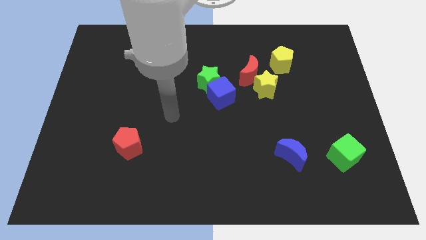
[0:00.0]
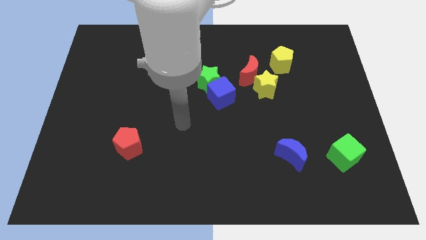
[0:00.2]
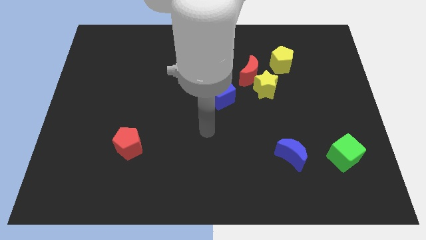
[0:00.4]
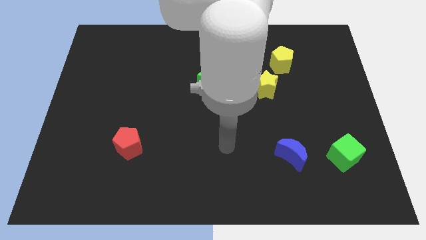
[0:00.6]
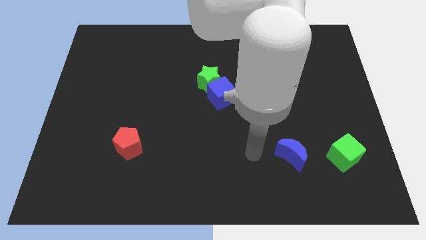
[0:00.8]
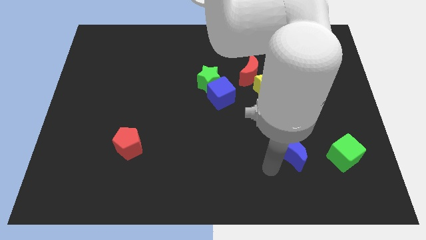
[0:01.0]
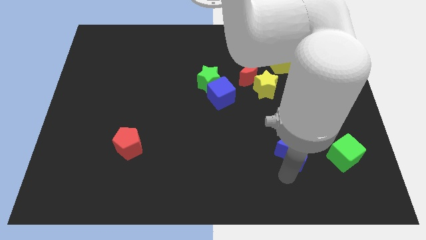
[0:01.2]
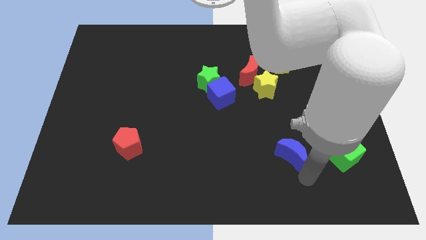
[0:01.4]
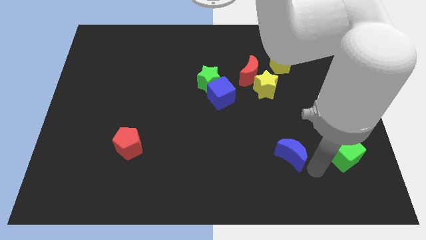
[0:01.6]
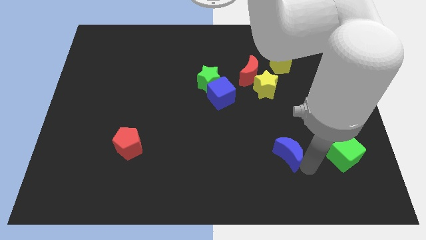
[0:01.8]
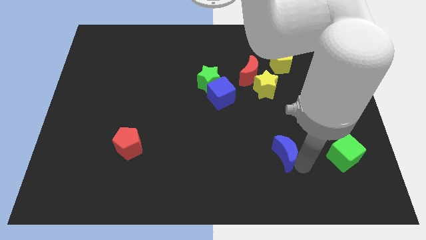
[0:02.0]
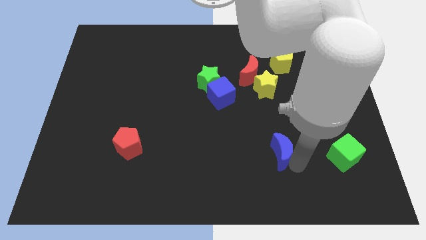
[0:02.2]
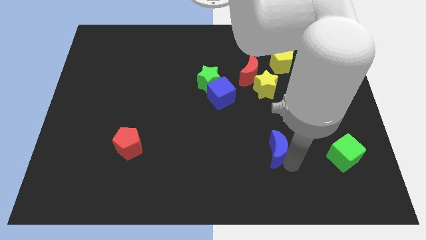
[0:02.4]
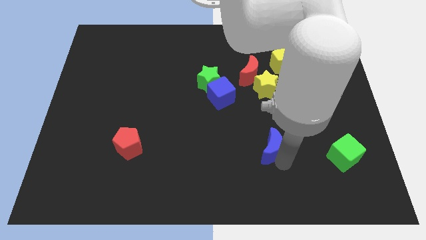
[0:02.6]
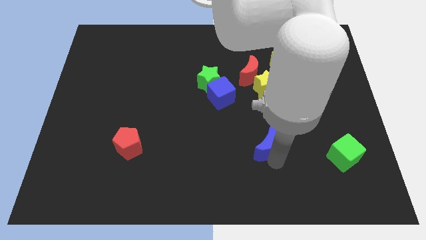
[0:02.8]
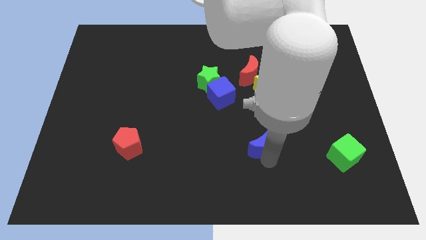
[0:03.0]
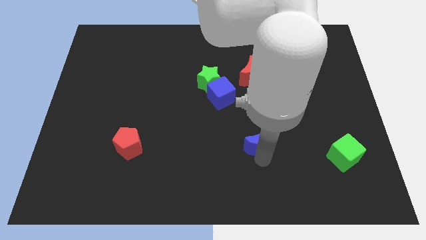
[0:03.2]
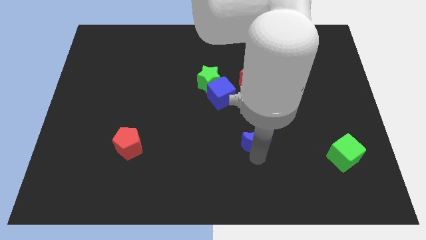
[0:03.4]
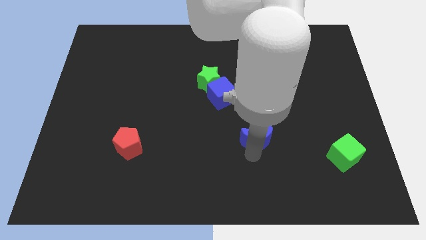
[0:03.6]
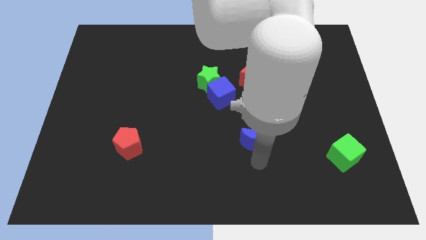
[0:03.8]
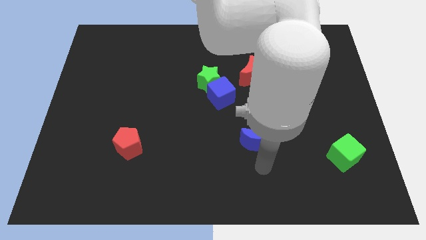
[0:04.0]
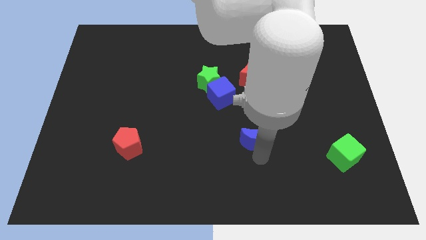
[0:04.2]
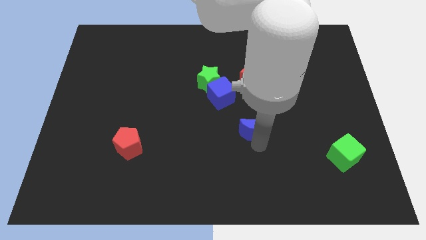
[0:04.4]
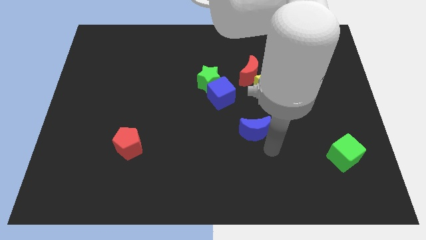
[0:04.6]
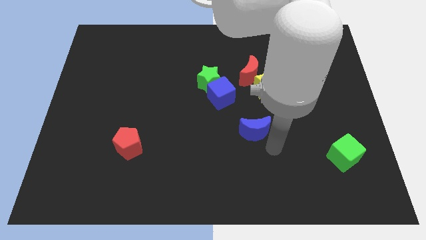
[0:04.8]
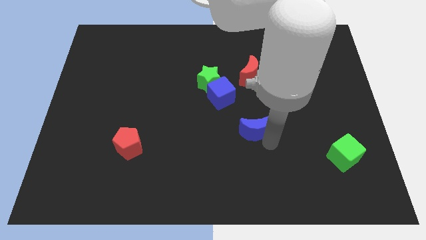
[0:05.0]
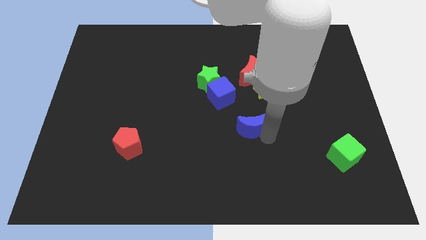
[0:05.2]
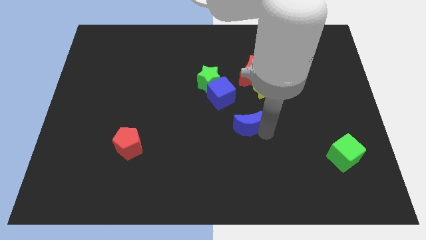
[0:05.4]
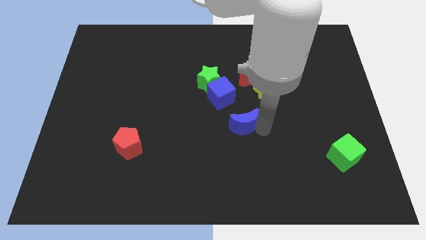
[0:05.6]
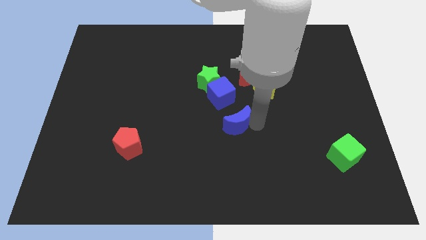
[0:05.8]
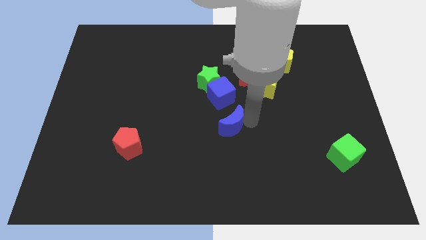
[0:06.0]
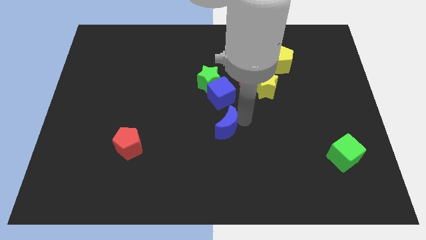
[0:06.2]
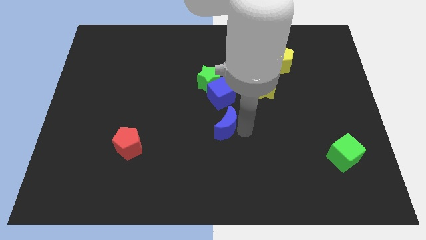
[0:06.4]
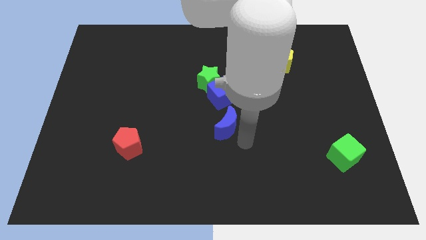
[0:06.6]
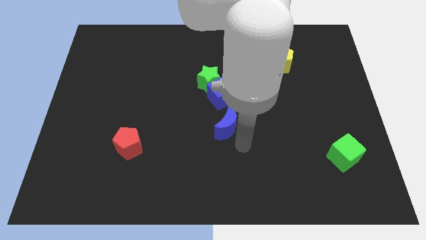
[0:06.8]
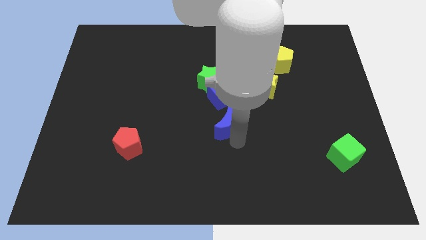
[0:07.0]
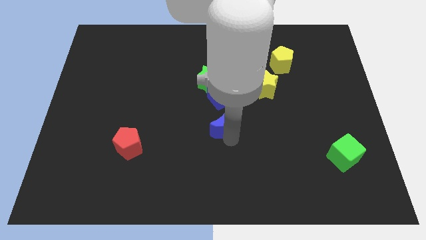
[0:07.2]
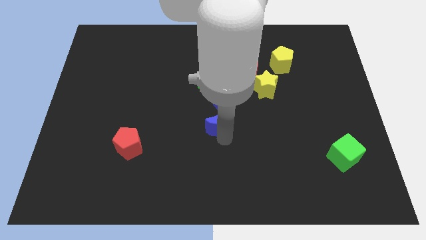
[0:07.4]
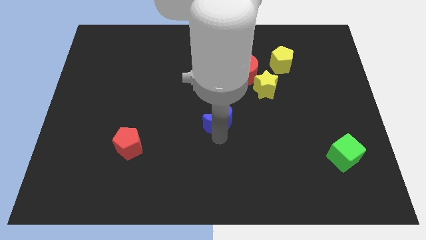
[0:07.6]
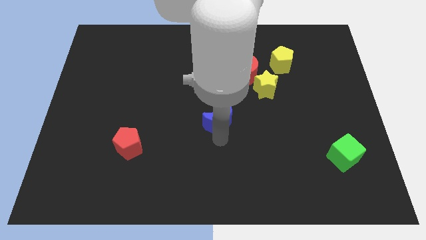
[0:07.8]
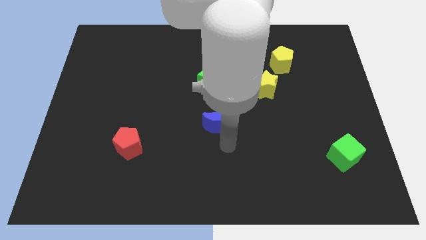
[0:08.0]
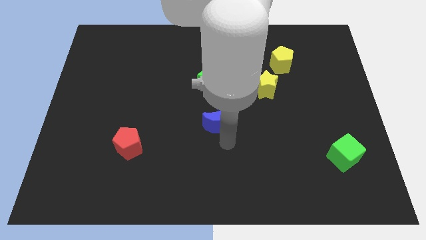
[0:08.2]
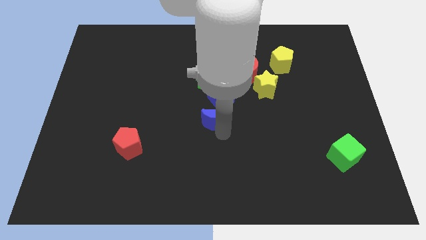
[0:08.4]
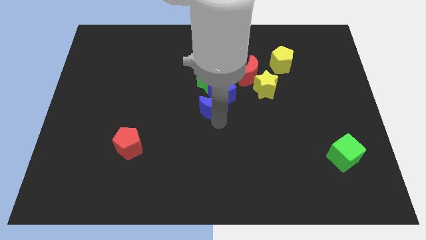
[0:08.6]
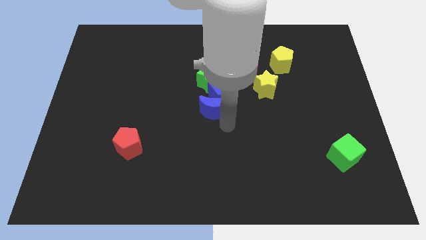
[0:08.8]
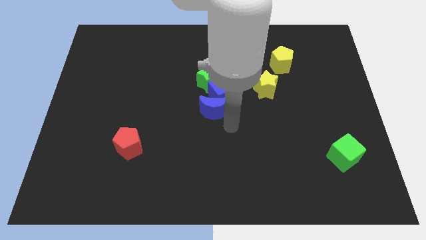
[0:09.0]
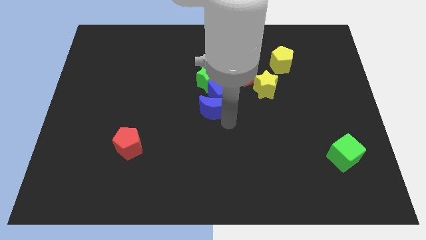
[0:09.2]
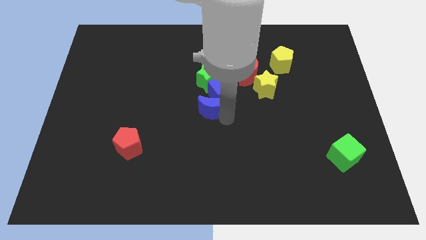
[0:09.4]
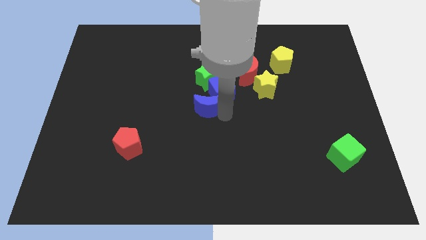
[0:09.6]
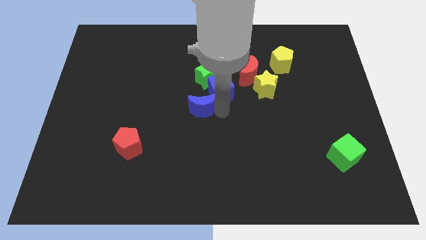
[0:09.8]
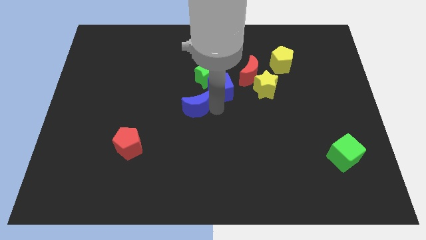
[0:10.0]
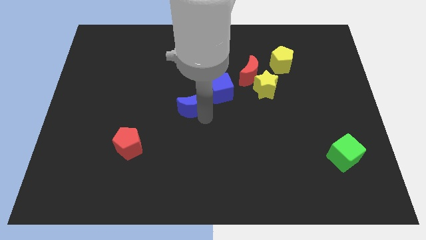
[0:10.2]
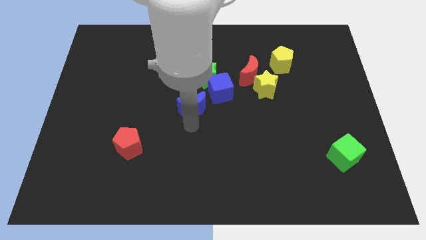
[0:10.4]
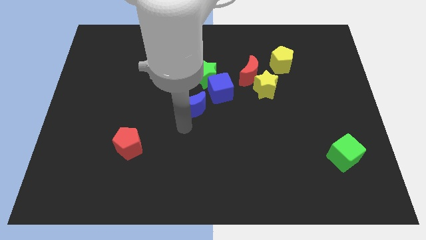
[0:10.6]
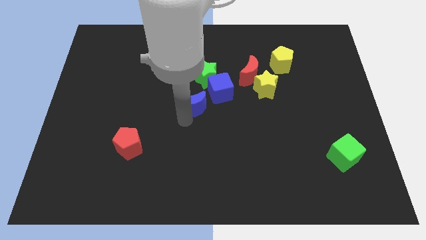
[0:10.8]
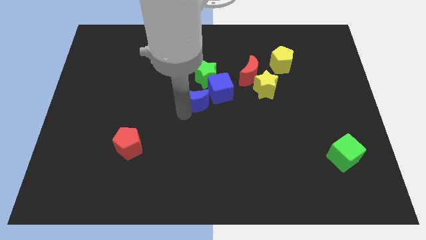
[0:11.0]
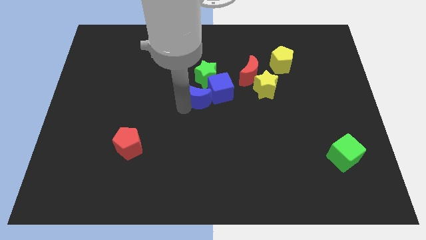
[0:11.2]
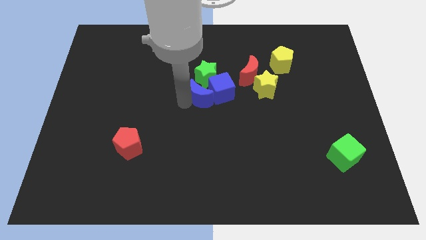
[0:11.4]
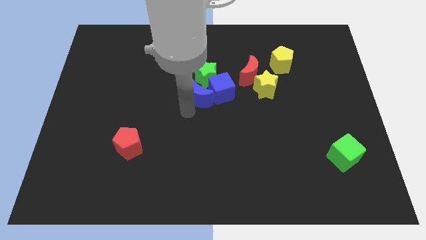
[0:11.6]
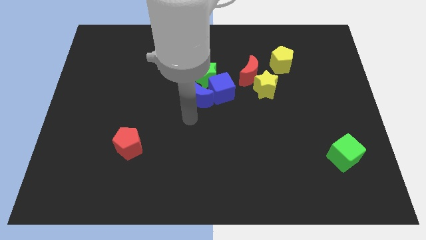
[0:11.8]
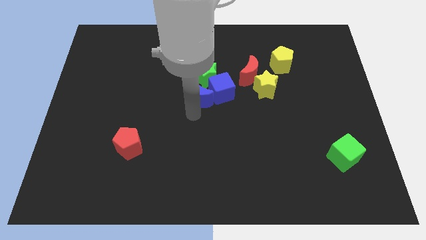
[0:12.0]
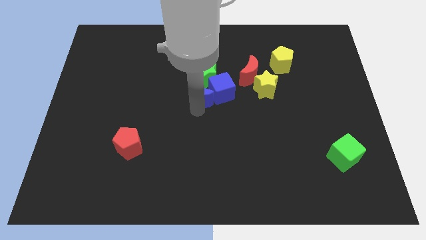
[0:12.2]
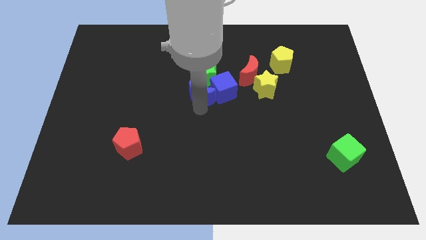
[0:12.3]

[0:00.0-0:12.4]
move the blue moon next to the green star
